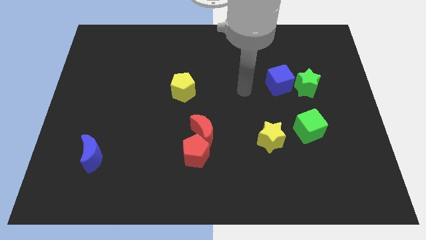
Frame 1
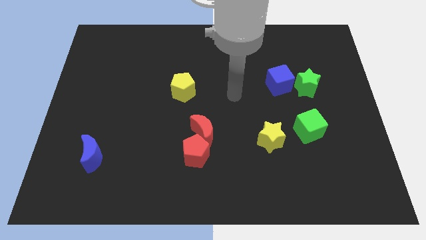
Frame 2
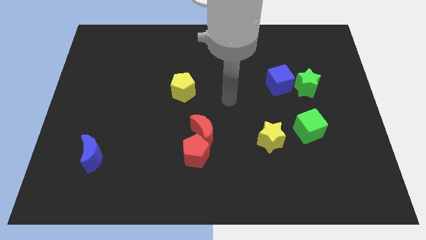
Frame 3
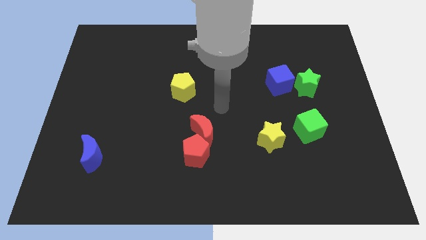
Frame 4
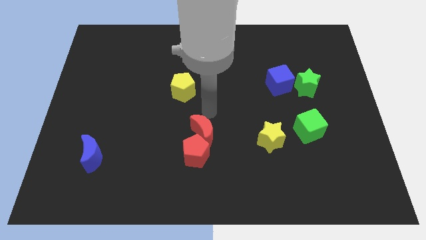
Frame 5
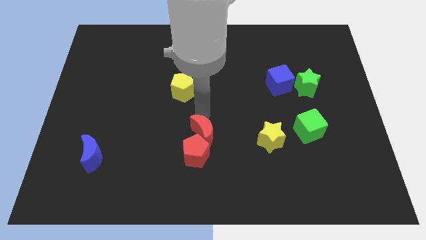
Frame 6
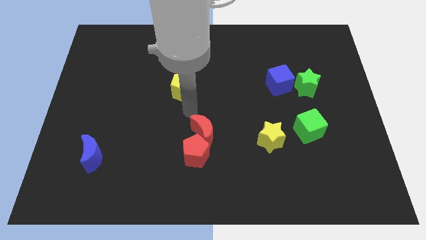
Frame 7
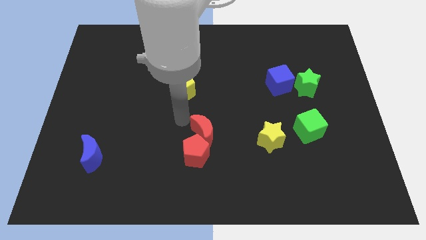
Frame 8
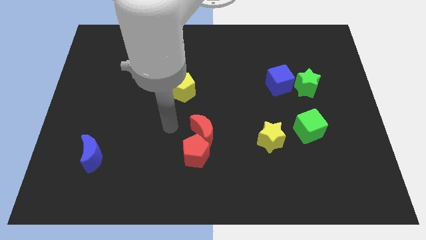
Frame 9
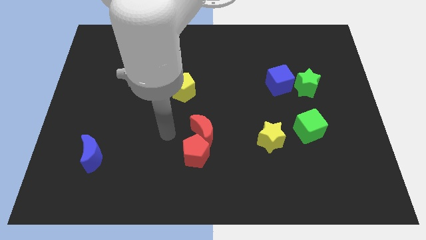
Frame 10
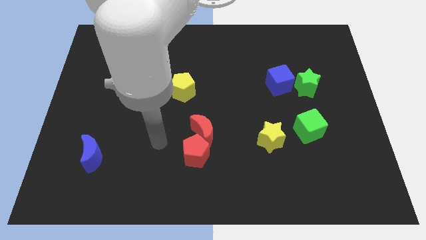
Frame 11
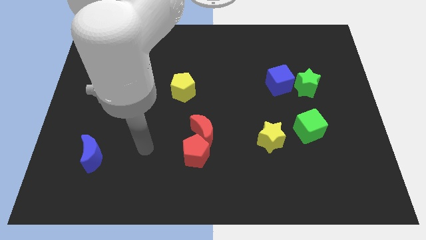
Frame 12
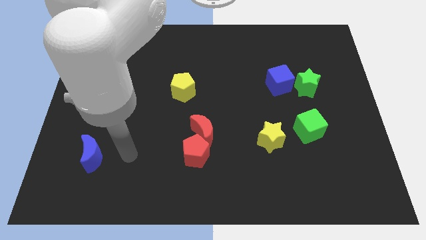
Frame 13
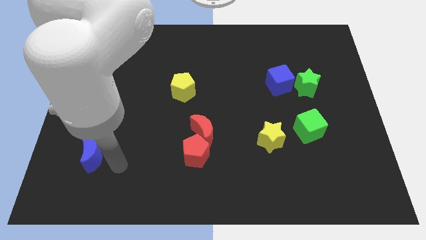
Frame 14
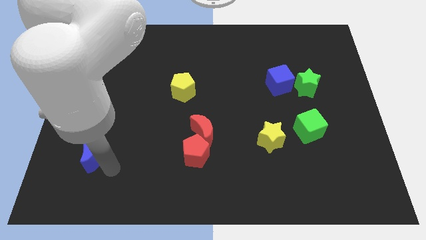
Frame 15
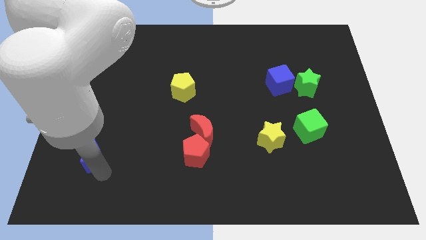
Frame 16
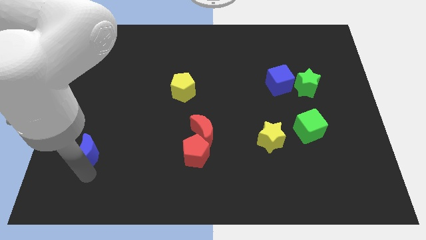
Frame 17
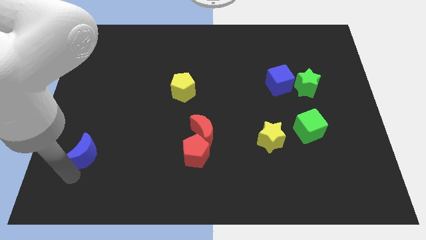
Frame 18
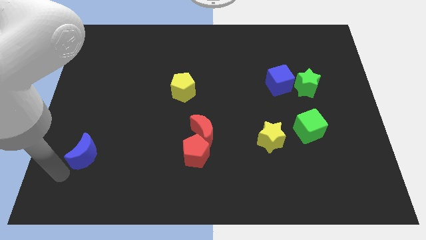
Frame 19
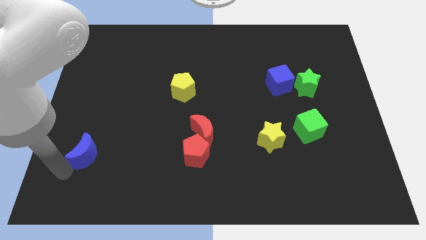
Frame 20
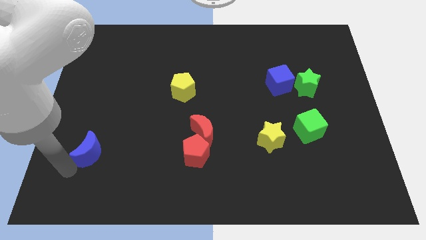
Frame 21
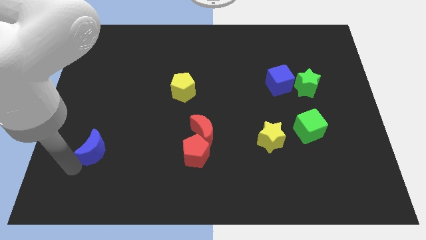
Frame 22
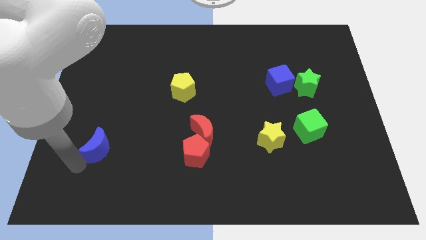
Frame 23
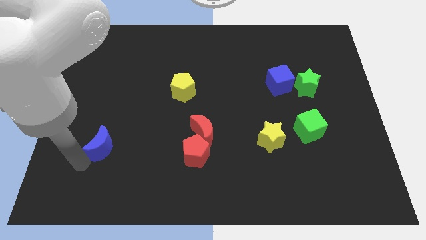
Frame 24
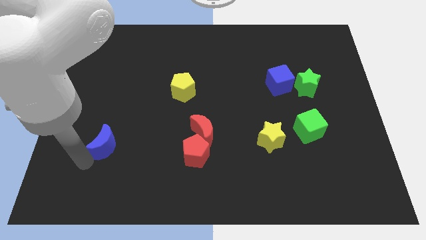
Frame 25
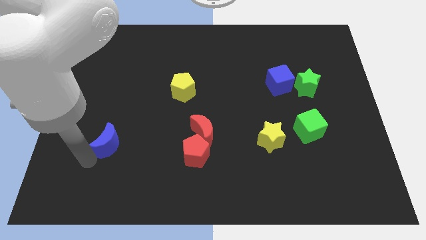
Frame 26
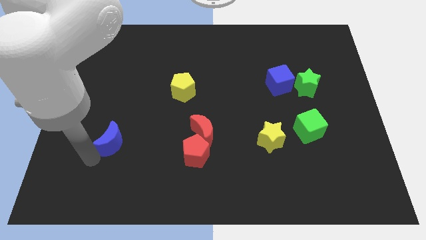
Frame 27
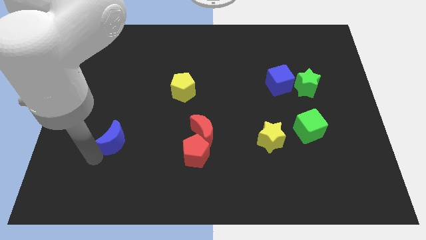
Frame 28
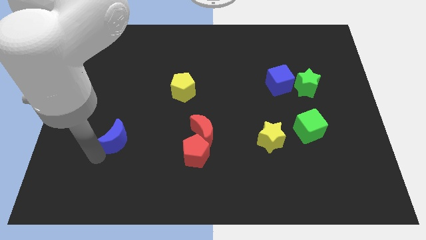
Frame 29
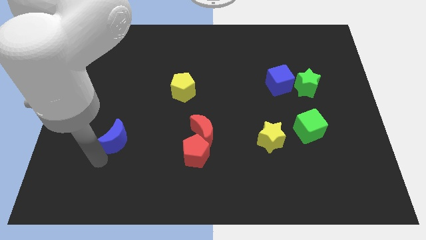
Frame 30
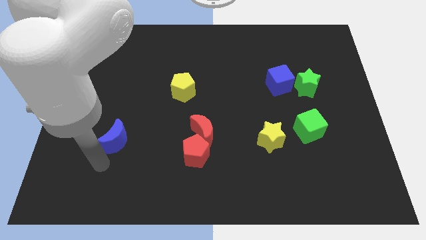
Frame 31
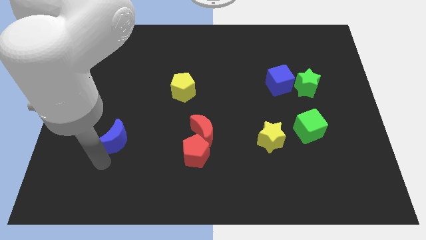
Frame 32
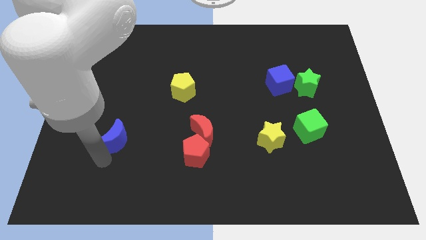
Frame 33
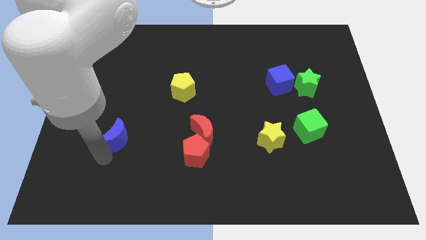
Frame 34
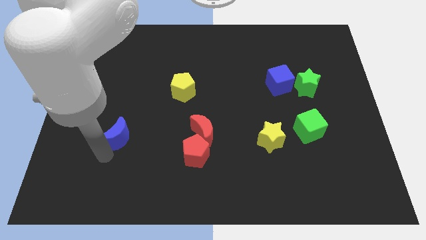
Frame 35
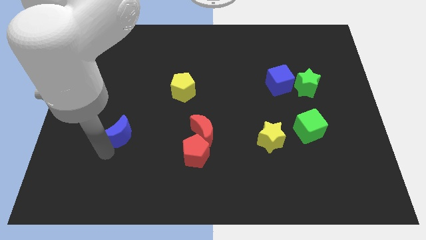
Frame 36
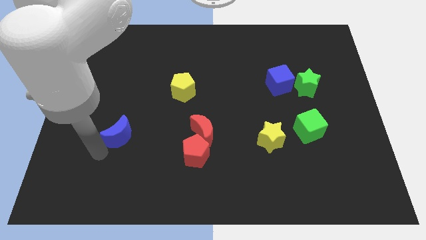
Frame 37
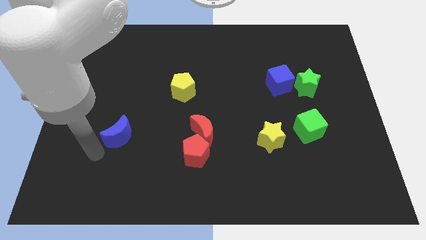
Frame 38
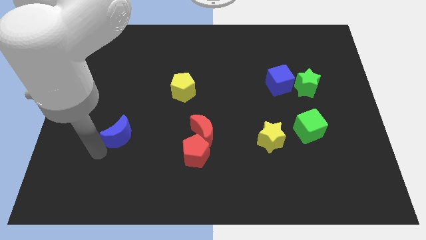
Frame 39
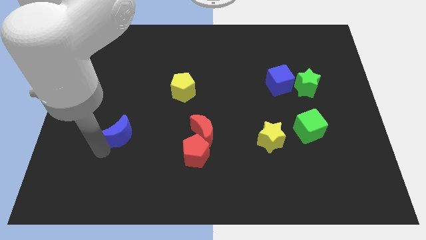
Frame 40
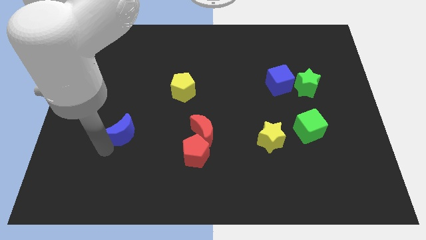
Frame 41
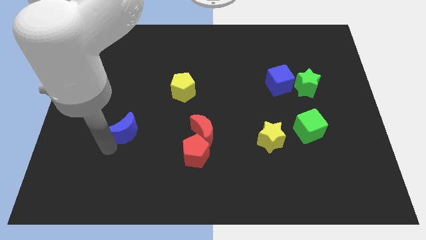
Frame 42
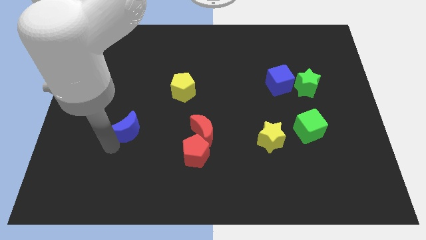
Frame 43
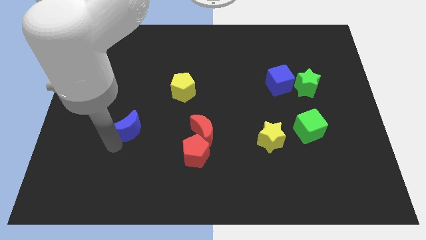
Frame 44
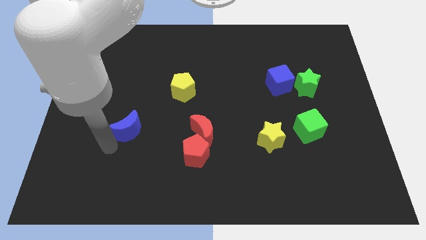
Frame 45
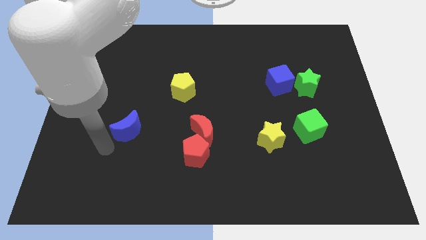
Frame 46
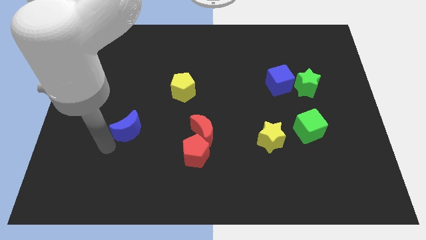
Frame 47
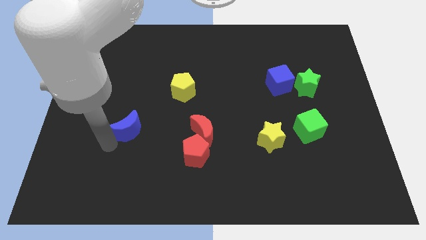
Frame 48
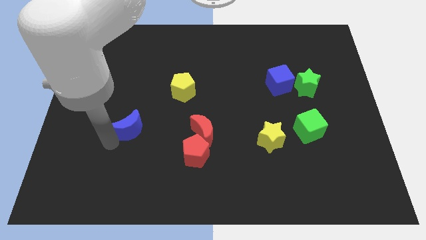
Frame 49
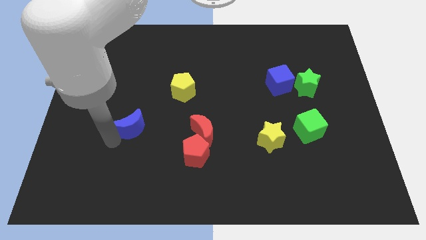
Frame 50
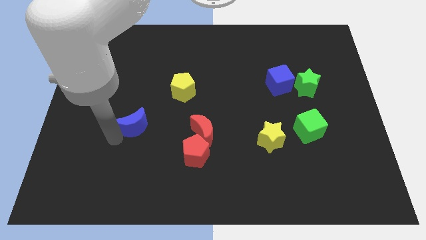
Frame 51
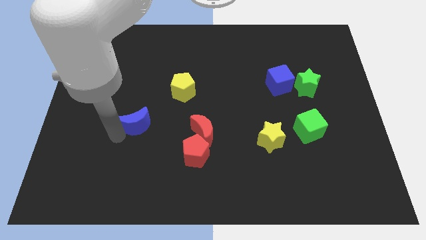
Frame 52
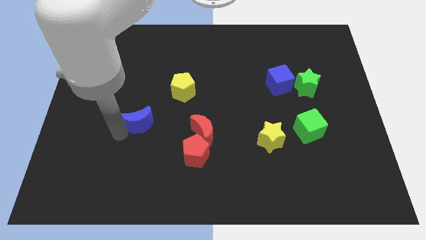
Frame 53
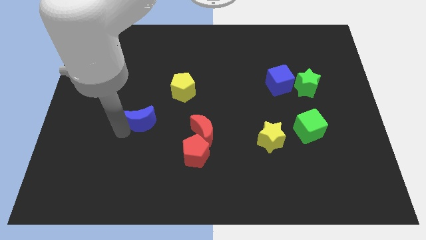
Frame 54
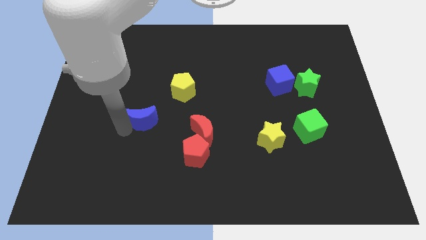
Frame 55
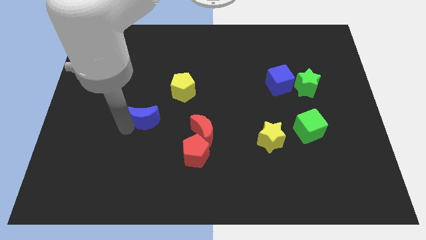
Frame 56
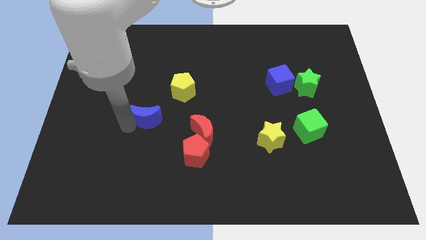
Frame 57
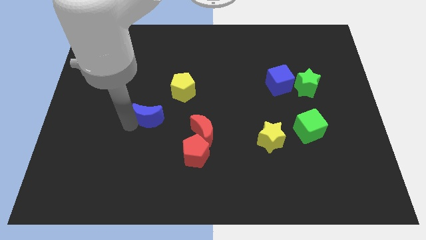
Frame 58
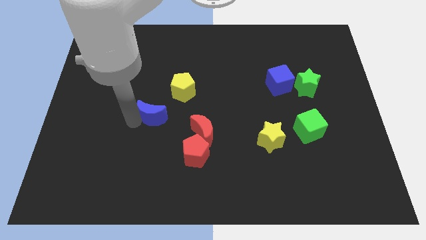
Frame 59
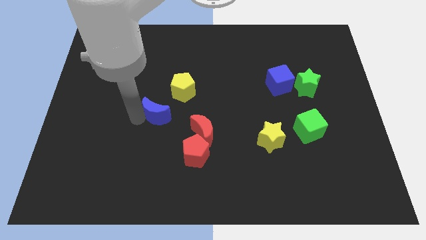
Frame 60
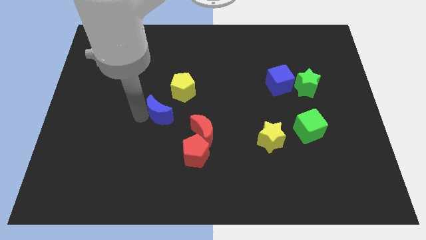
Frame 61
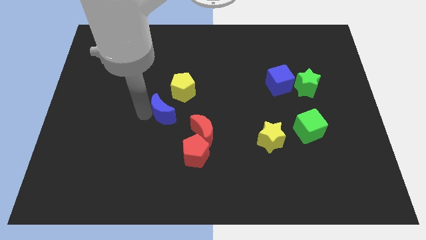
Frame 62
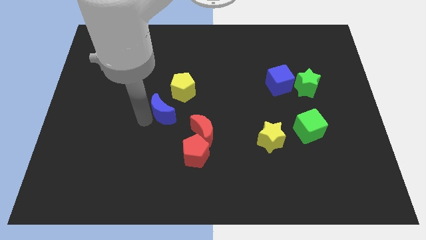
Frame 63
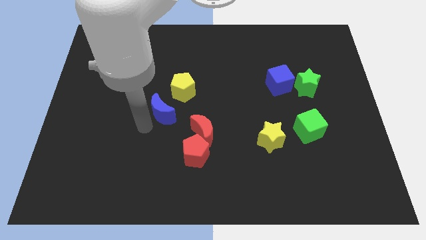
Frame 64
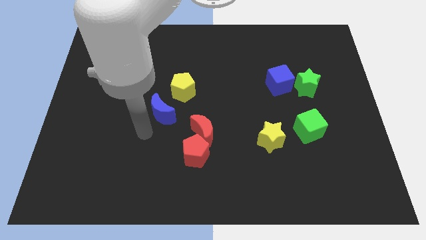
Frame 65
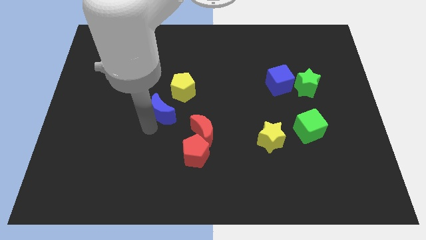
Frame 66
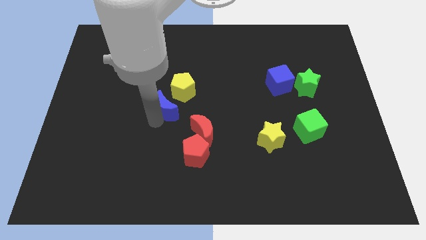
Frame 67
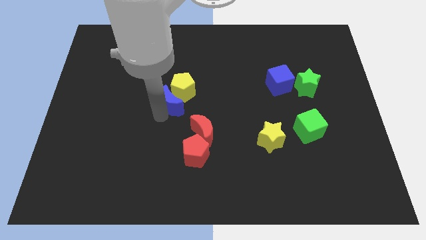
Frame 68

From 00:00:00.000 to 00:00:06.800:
slide the blue moon to the yellow pentagon

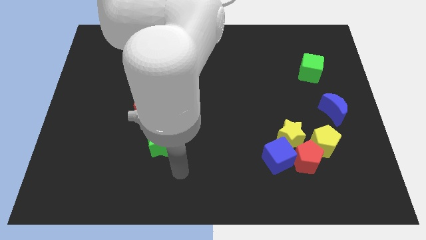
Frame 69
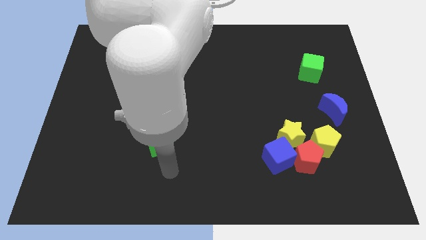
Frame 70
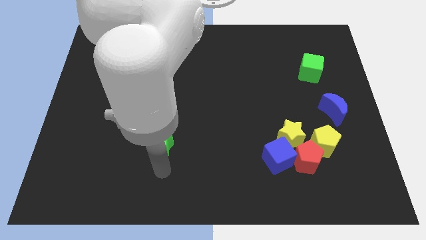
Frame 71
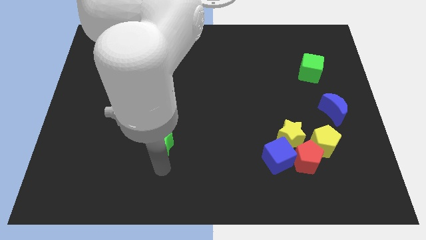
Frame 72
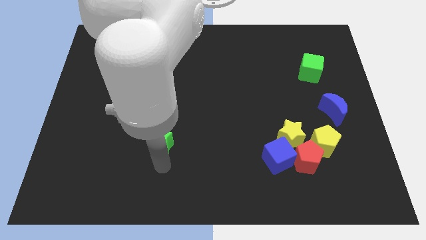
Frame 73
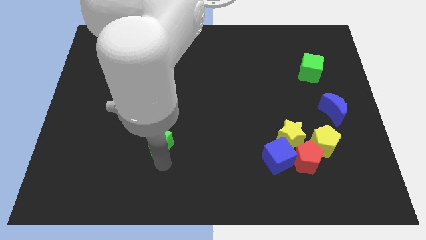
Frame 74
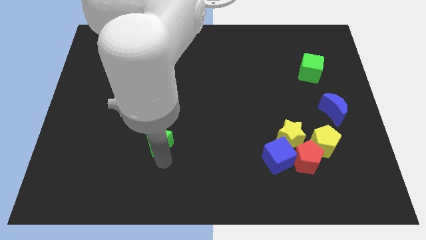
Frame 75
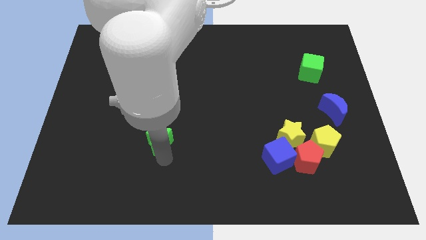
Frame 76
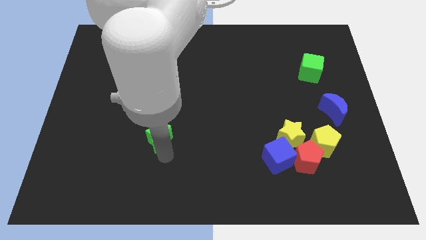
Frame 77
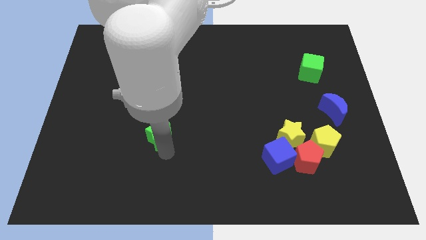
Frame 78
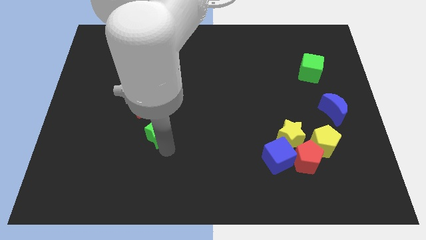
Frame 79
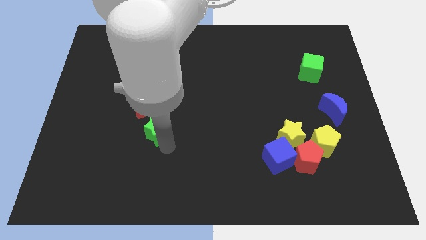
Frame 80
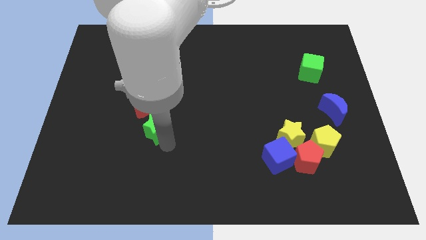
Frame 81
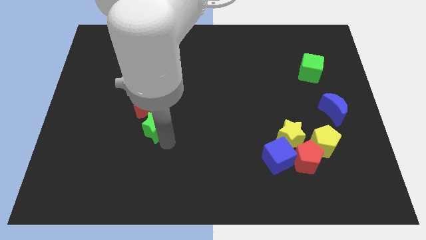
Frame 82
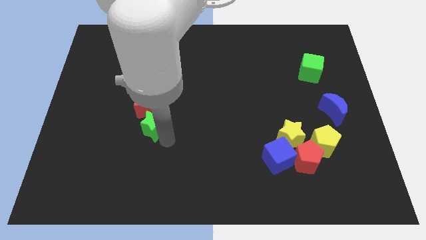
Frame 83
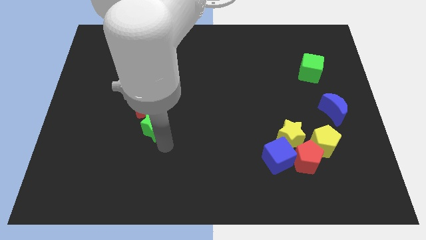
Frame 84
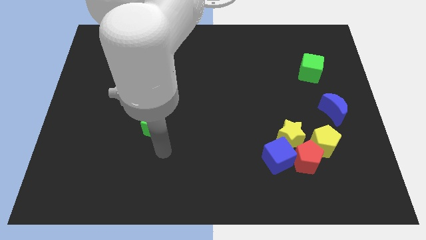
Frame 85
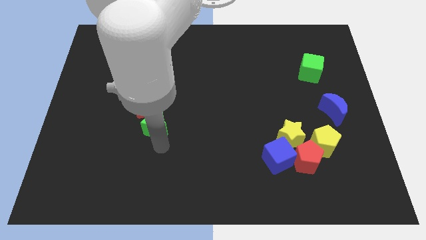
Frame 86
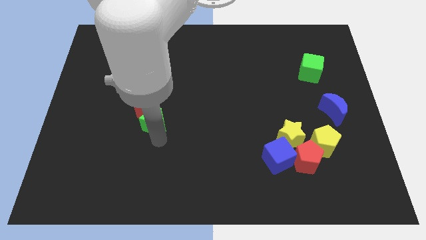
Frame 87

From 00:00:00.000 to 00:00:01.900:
put the green star towards the red moon
